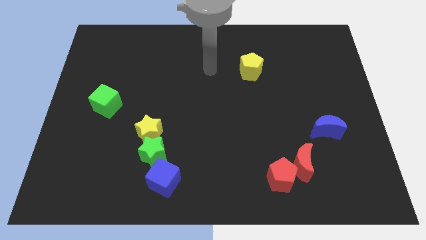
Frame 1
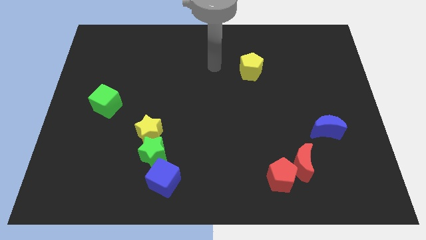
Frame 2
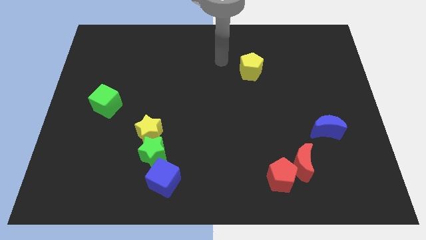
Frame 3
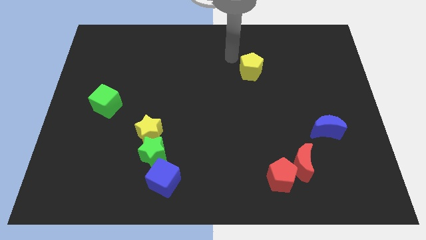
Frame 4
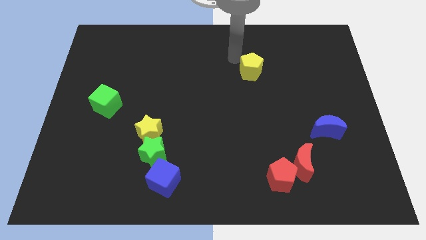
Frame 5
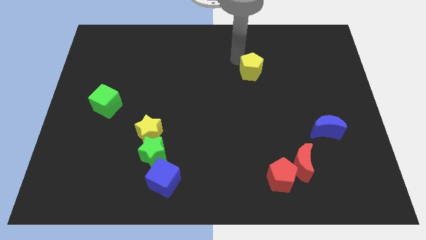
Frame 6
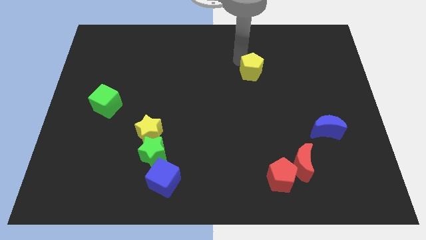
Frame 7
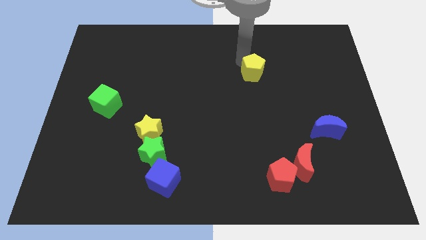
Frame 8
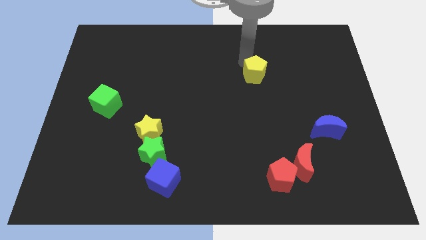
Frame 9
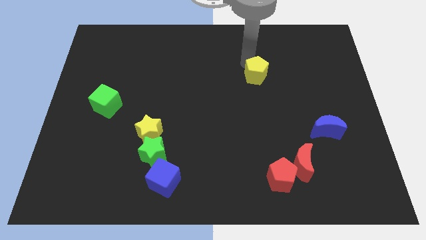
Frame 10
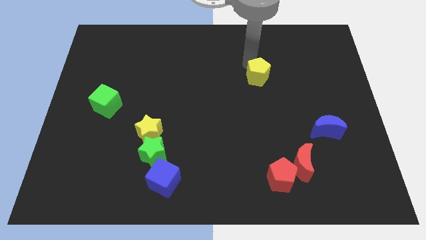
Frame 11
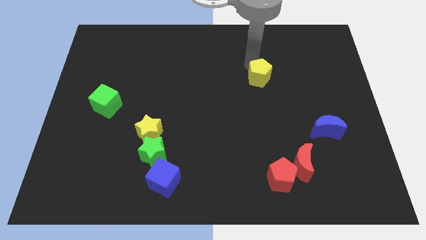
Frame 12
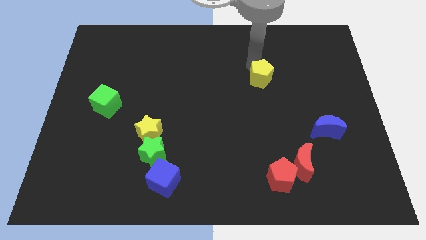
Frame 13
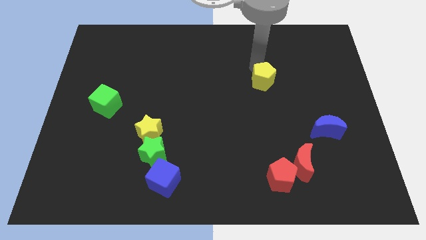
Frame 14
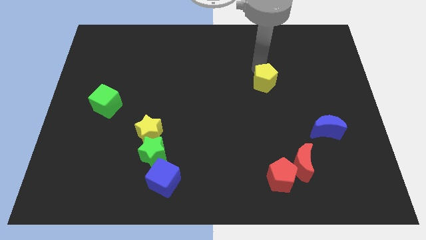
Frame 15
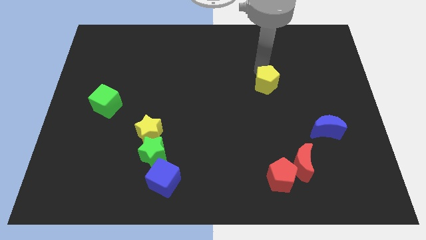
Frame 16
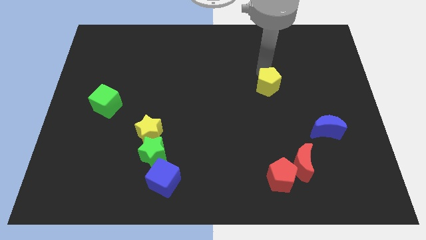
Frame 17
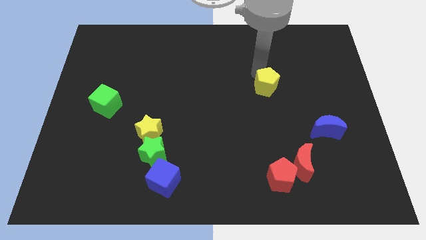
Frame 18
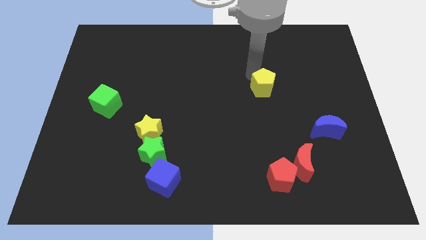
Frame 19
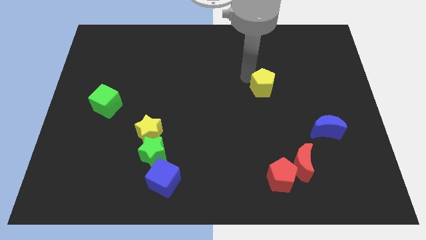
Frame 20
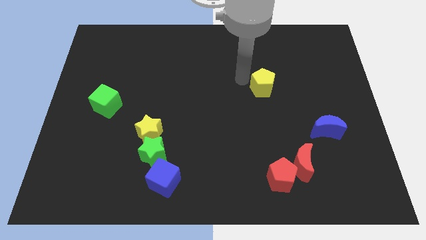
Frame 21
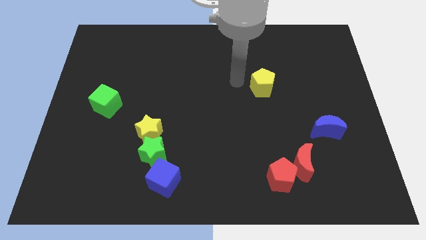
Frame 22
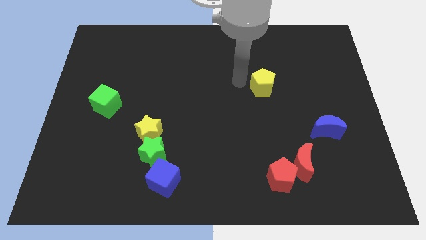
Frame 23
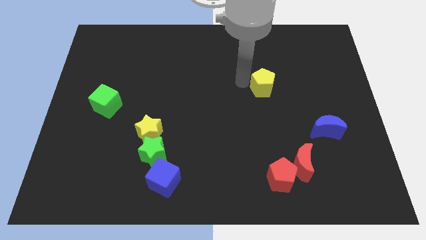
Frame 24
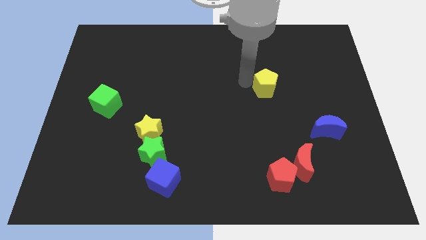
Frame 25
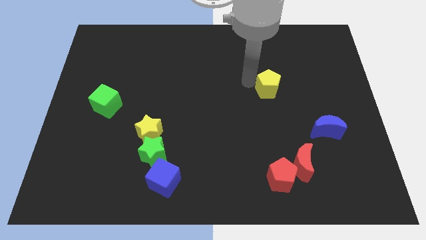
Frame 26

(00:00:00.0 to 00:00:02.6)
move the yellow pentagon a little downwards and to the right diagonally

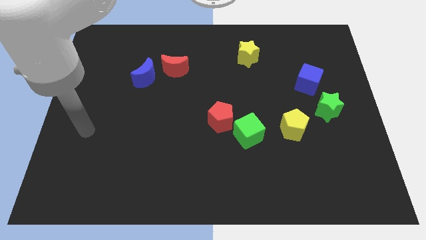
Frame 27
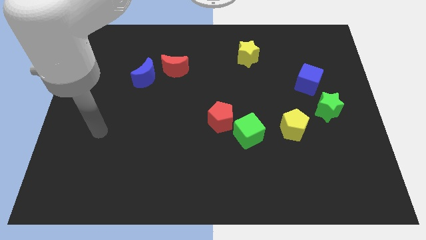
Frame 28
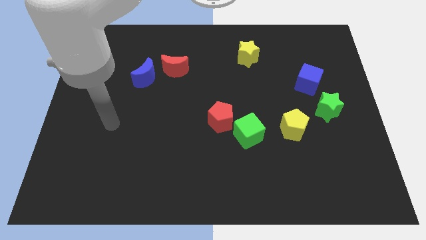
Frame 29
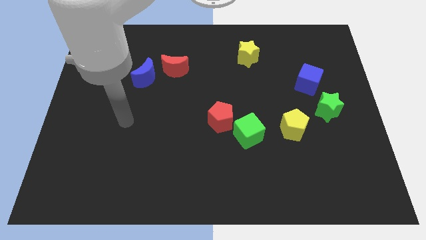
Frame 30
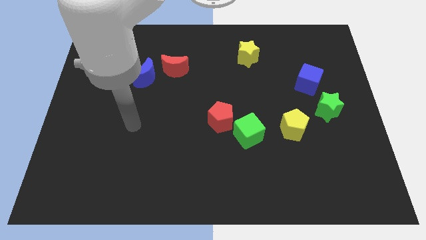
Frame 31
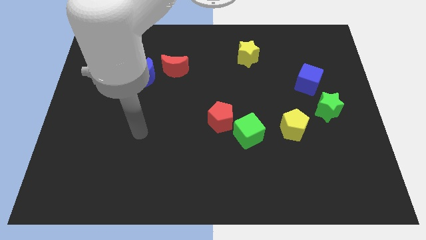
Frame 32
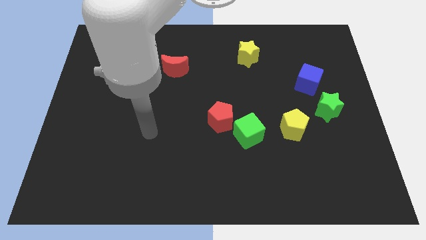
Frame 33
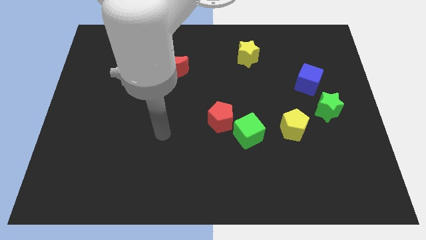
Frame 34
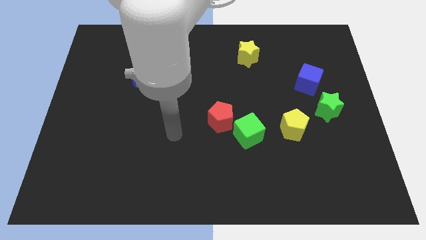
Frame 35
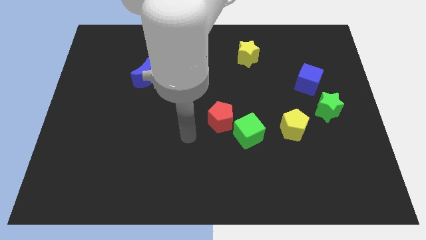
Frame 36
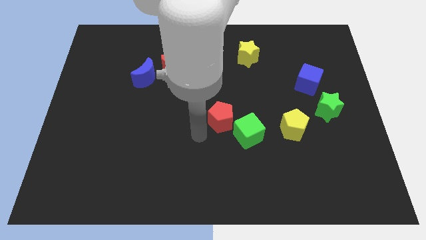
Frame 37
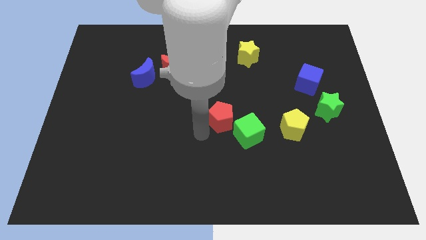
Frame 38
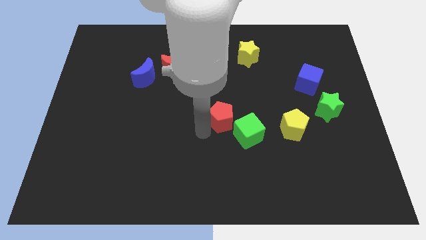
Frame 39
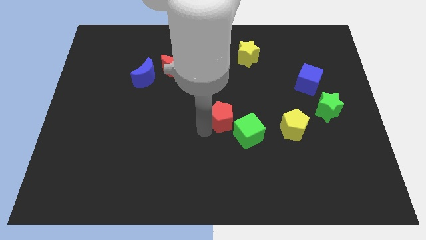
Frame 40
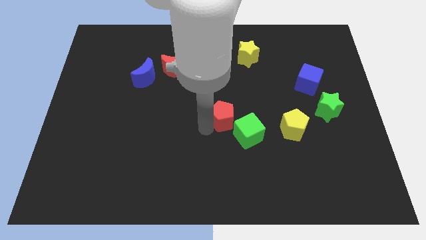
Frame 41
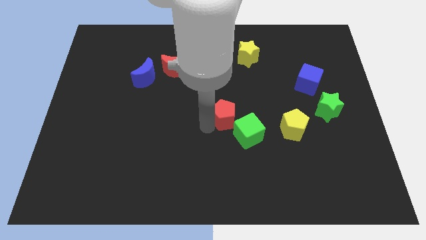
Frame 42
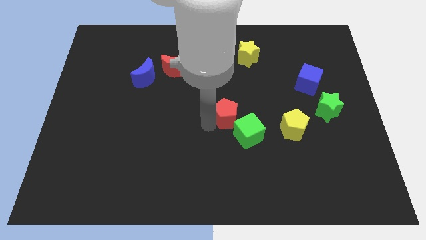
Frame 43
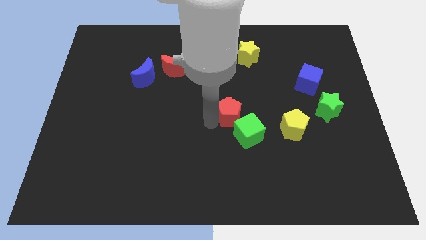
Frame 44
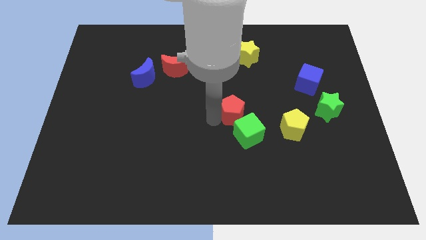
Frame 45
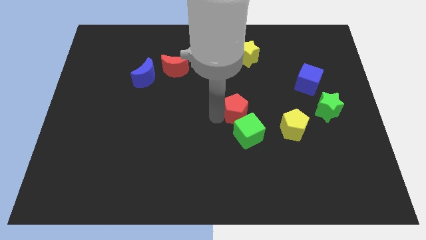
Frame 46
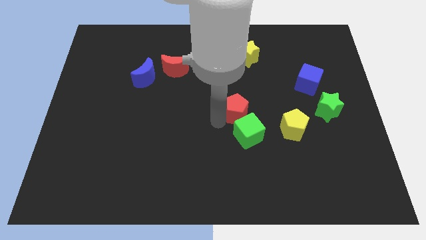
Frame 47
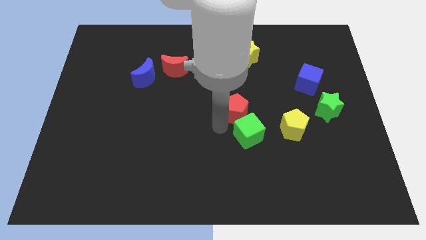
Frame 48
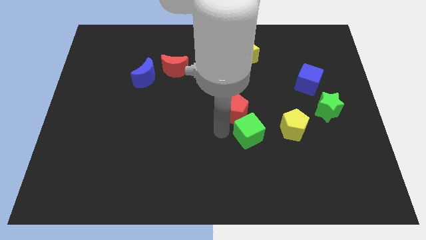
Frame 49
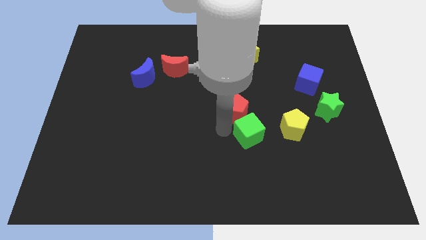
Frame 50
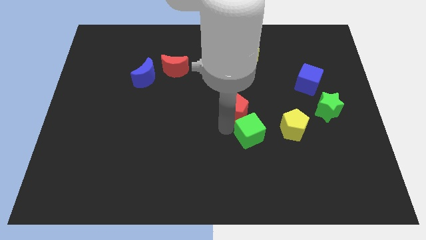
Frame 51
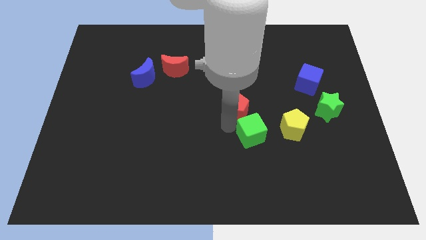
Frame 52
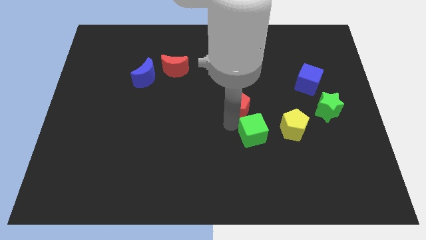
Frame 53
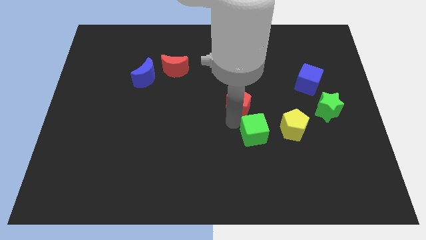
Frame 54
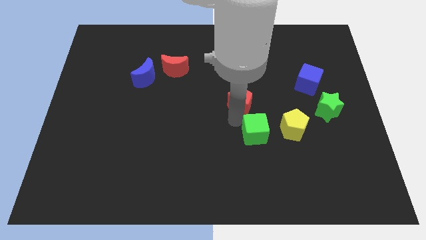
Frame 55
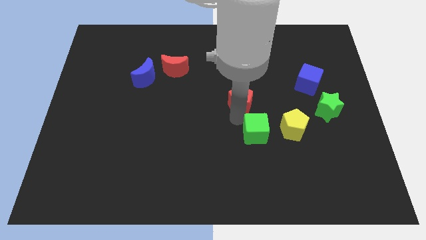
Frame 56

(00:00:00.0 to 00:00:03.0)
slightly move the red pentagon upwards and to the right

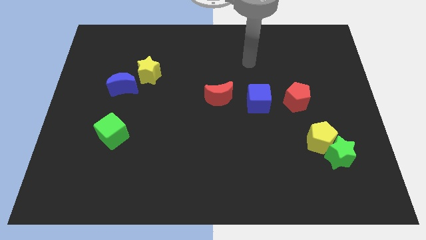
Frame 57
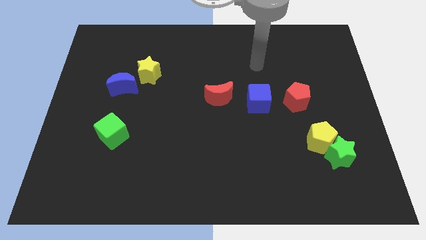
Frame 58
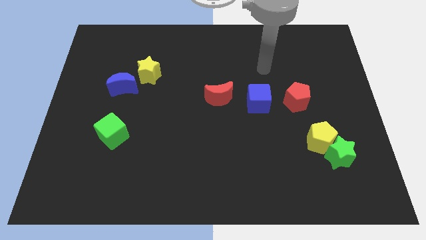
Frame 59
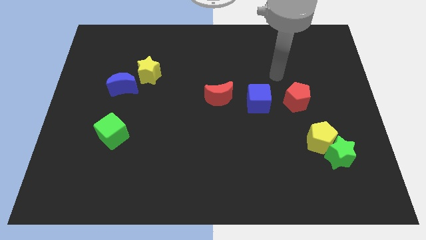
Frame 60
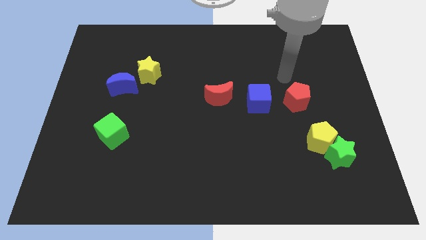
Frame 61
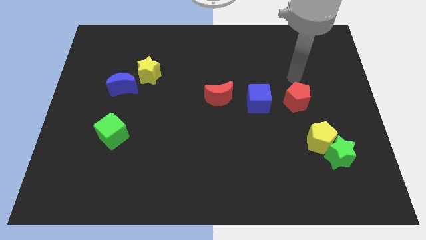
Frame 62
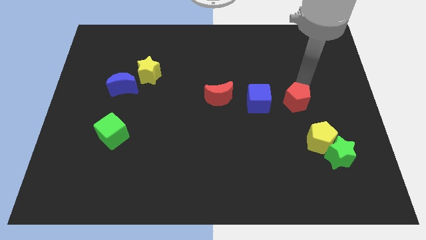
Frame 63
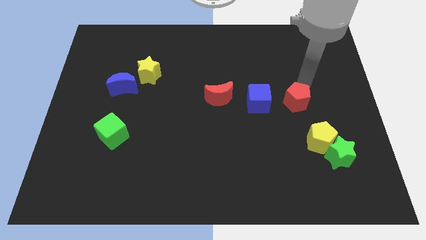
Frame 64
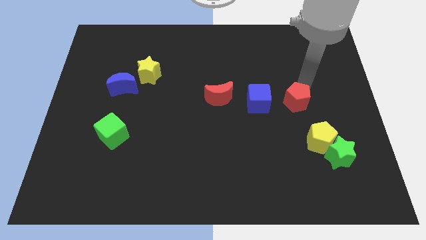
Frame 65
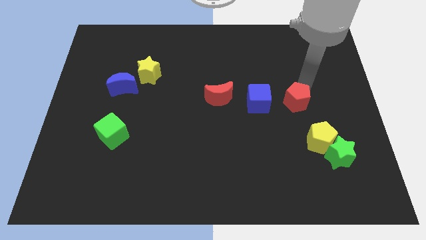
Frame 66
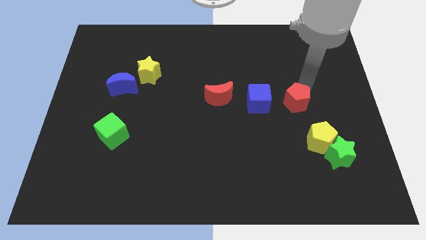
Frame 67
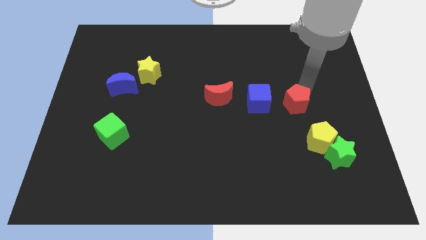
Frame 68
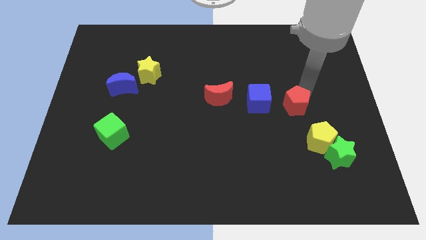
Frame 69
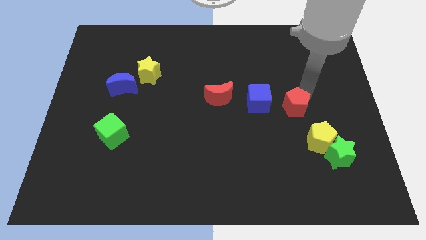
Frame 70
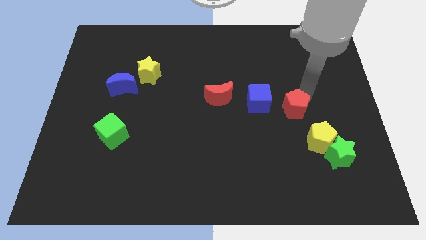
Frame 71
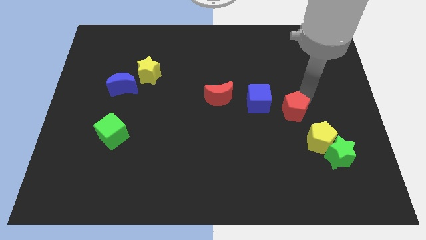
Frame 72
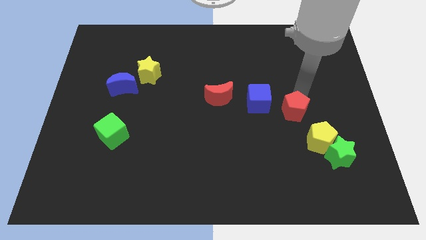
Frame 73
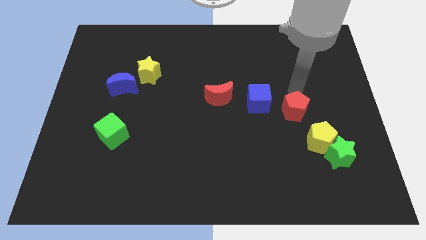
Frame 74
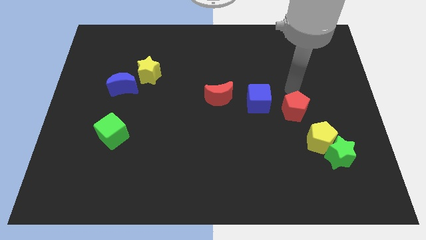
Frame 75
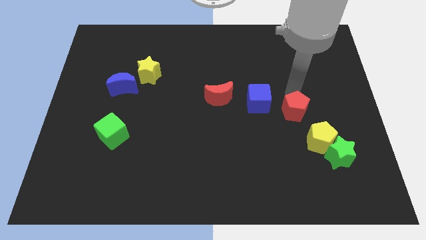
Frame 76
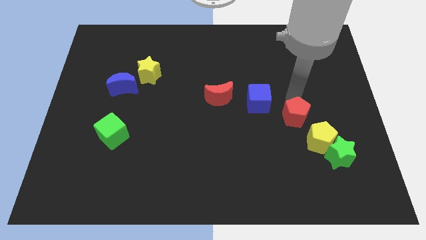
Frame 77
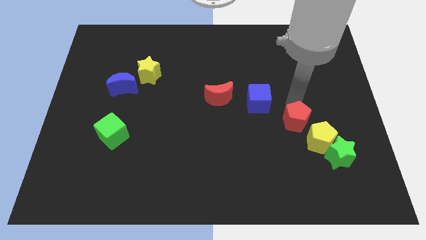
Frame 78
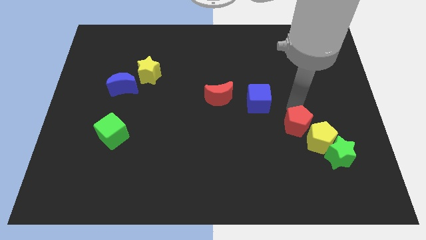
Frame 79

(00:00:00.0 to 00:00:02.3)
slightly push the red pentagon downwards
